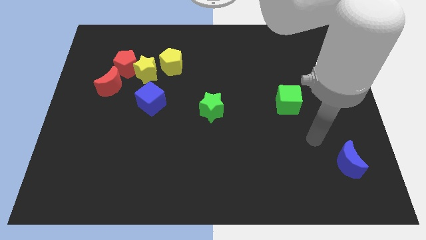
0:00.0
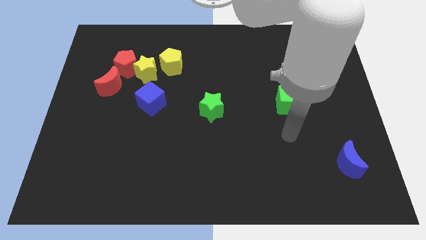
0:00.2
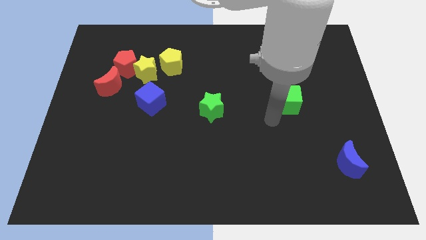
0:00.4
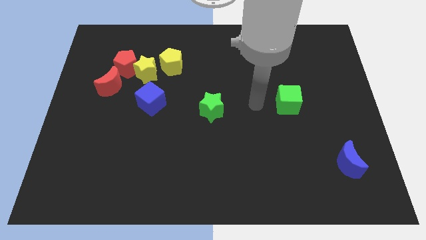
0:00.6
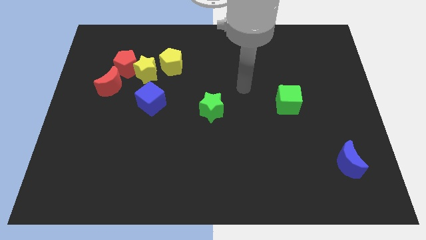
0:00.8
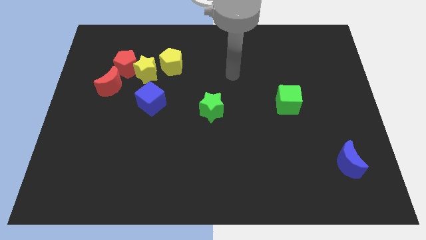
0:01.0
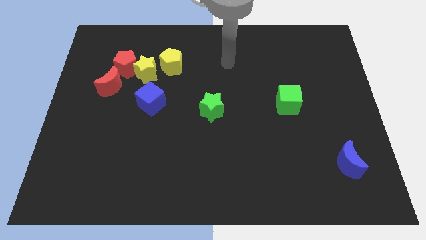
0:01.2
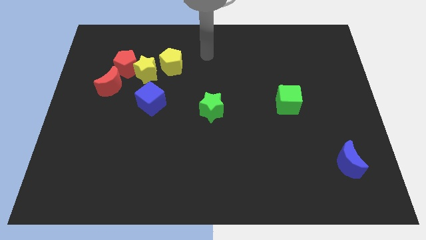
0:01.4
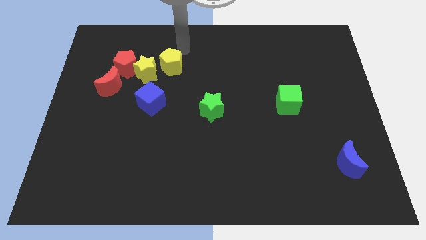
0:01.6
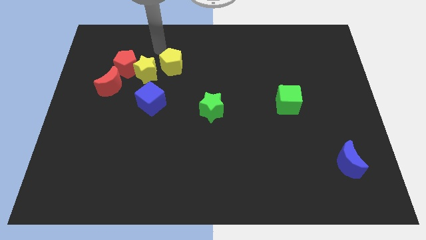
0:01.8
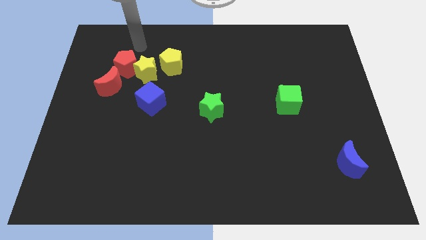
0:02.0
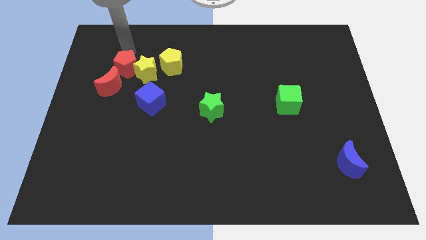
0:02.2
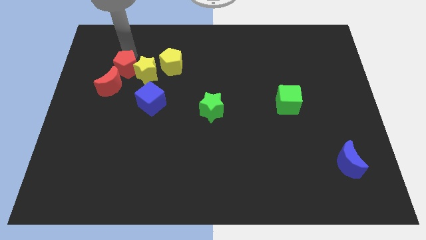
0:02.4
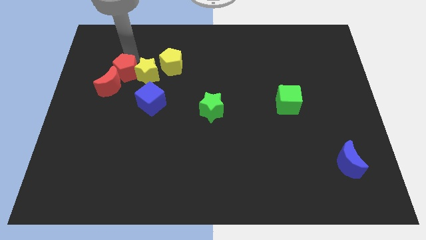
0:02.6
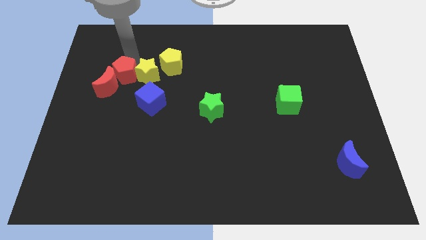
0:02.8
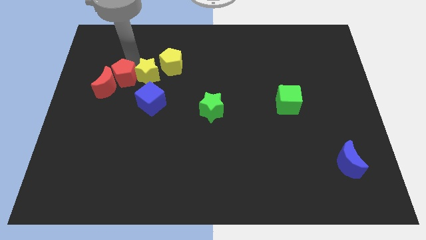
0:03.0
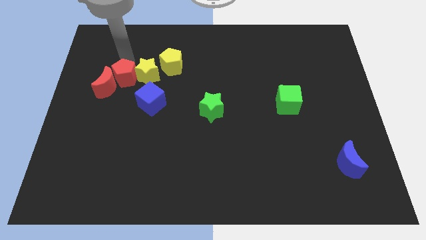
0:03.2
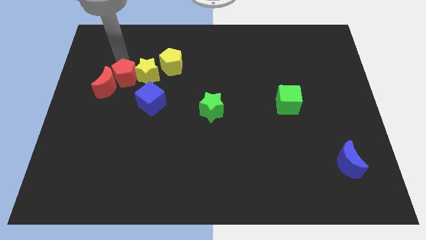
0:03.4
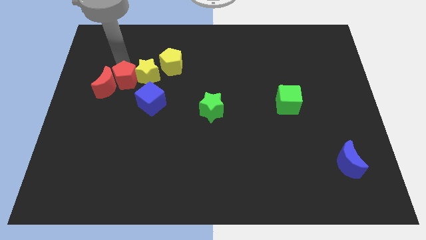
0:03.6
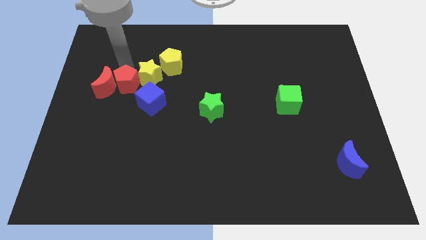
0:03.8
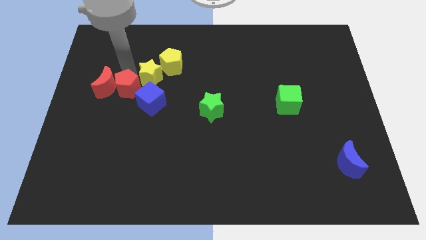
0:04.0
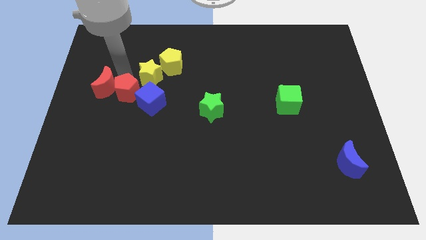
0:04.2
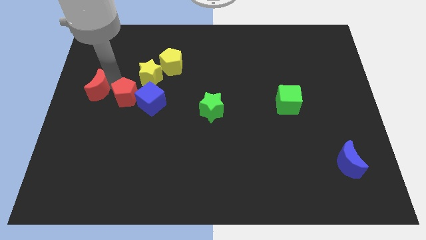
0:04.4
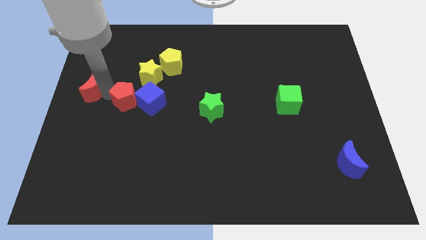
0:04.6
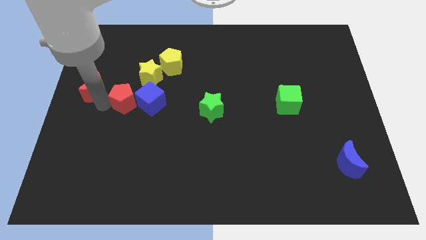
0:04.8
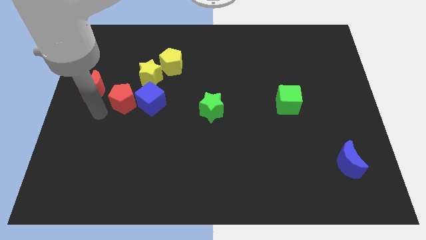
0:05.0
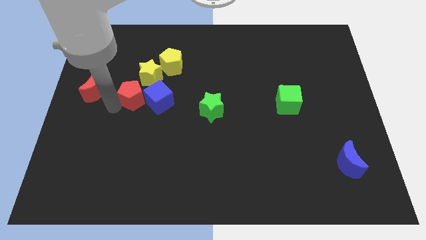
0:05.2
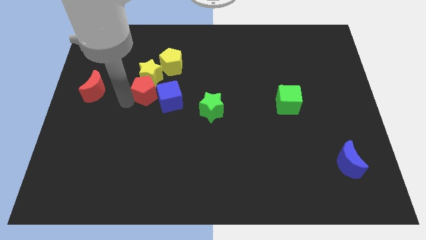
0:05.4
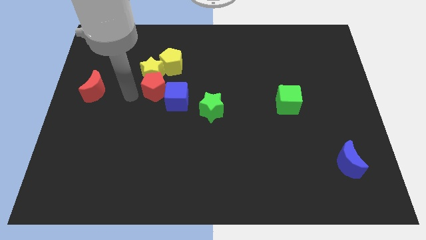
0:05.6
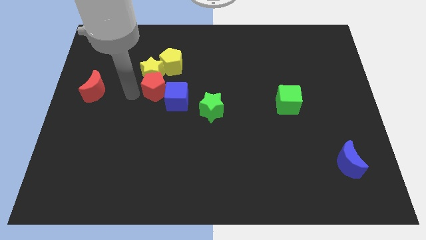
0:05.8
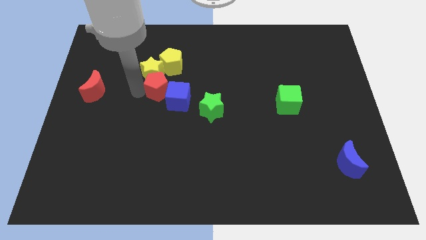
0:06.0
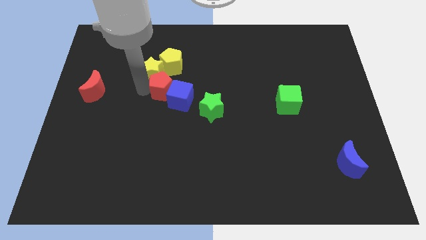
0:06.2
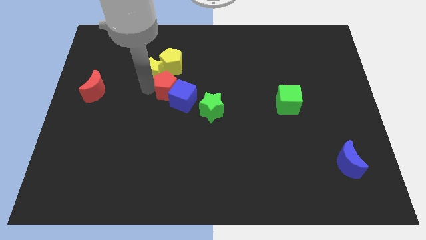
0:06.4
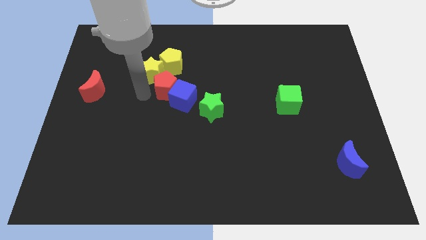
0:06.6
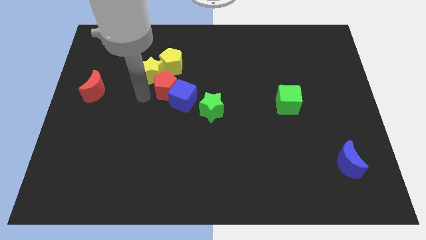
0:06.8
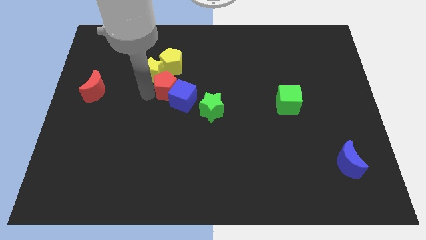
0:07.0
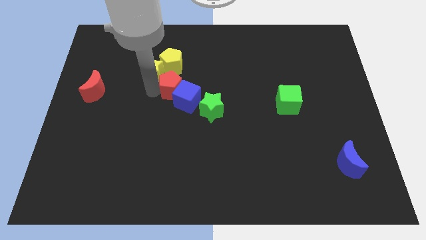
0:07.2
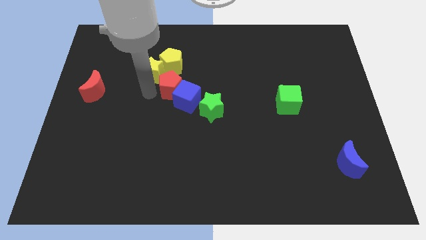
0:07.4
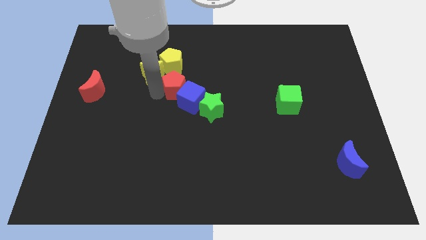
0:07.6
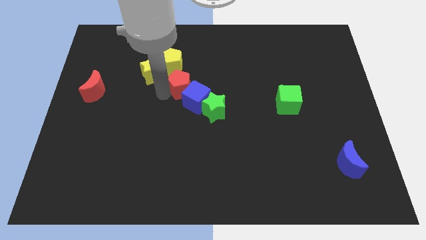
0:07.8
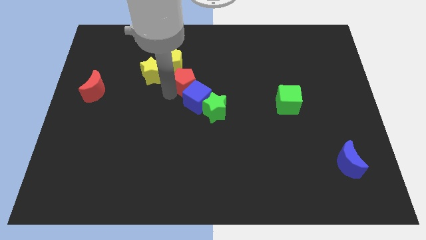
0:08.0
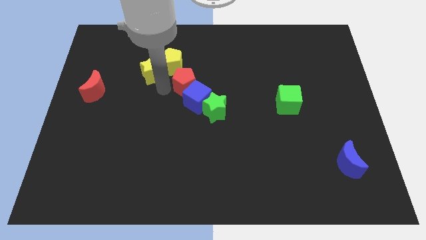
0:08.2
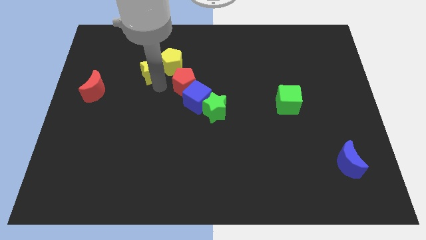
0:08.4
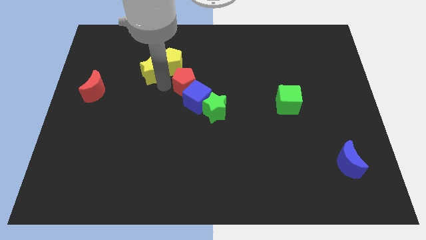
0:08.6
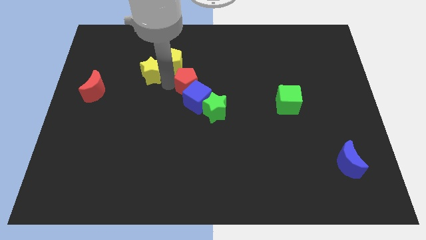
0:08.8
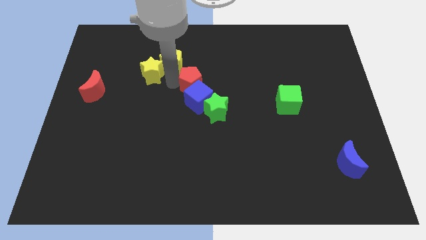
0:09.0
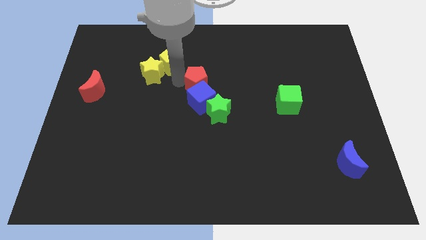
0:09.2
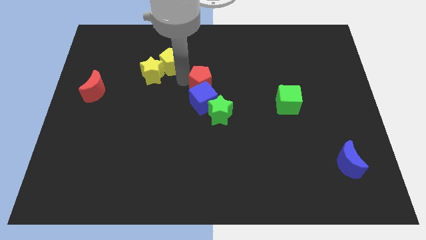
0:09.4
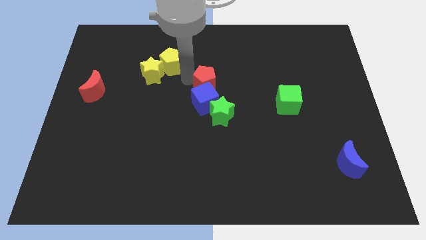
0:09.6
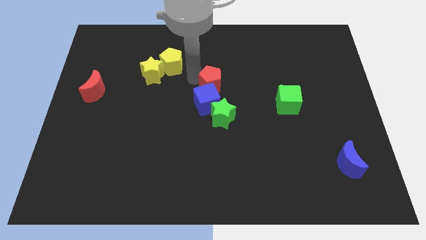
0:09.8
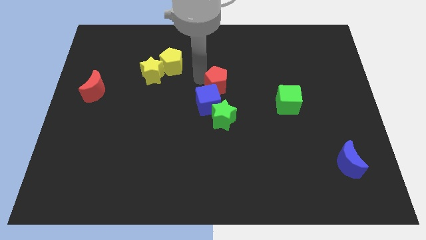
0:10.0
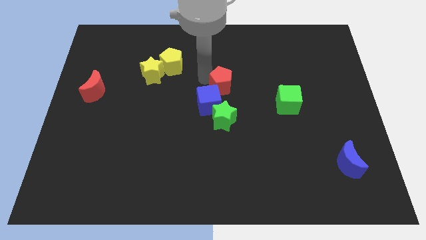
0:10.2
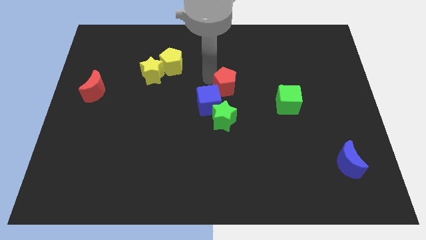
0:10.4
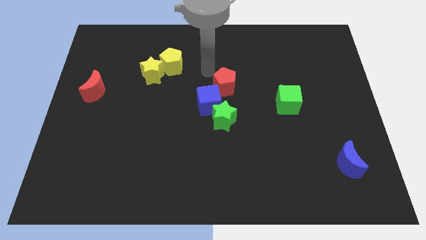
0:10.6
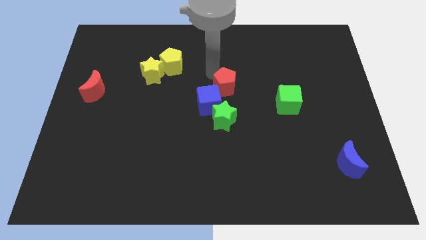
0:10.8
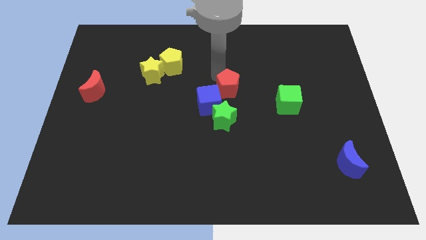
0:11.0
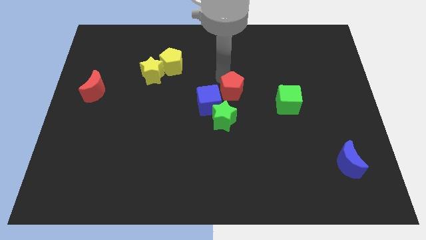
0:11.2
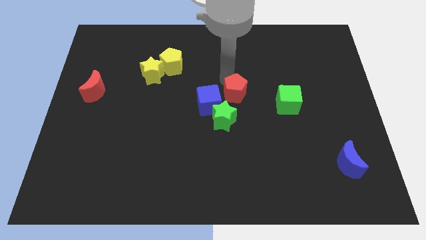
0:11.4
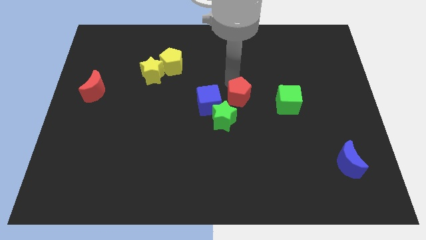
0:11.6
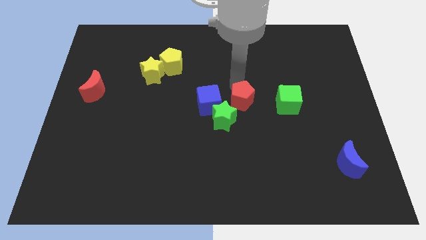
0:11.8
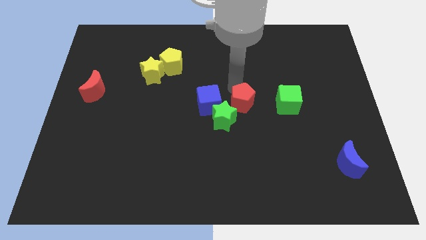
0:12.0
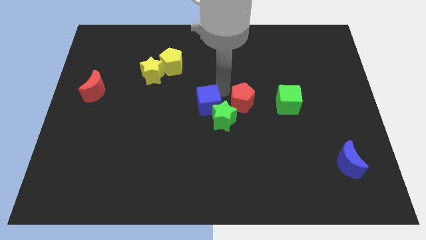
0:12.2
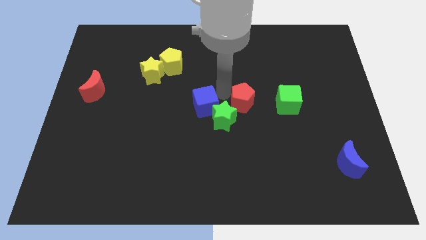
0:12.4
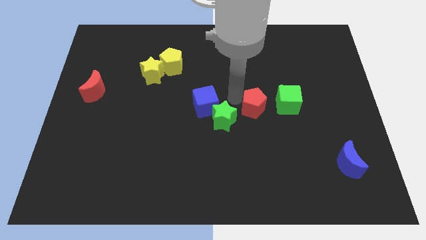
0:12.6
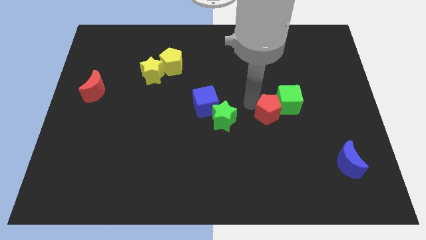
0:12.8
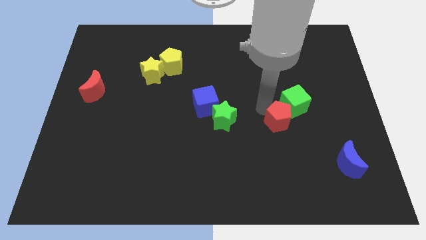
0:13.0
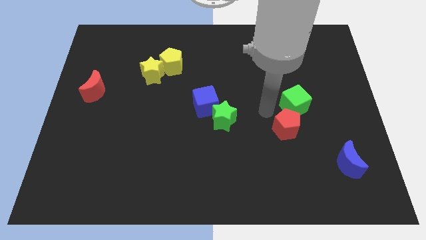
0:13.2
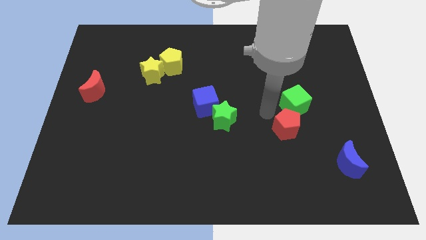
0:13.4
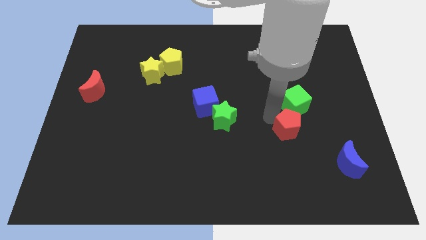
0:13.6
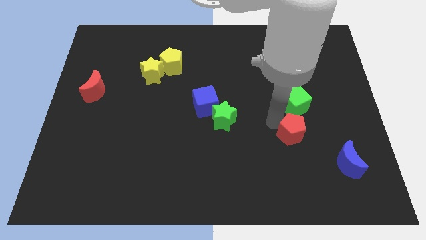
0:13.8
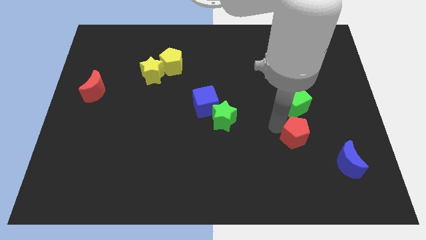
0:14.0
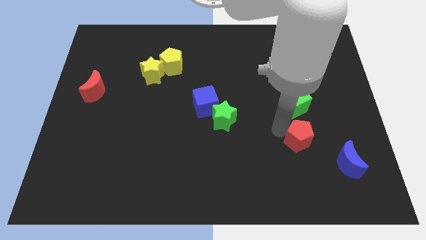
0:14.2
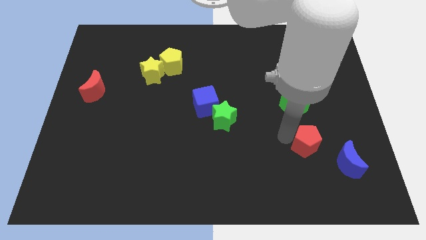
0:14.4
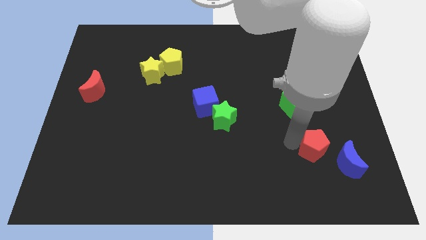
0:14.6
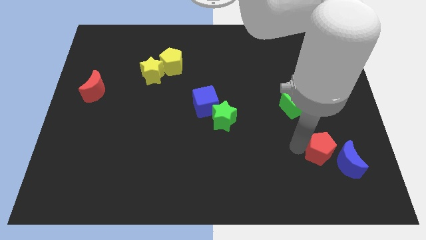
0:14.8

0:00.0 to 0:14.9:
move the red pentagon next to the blue moon
